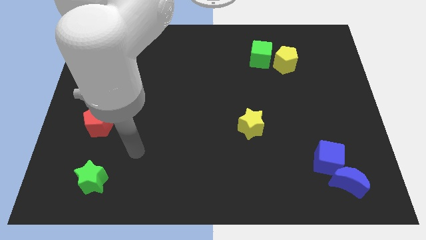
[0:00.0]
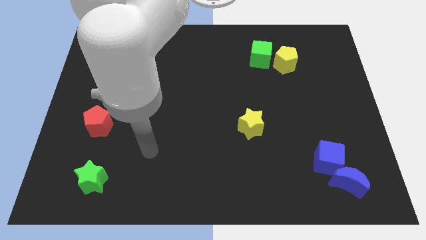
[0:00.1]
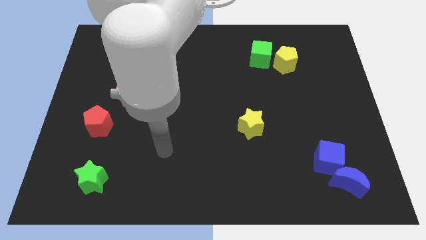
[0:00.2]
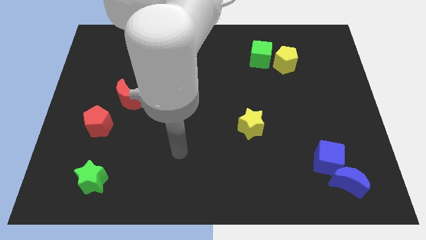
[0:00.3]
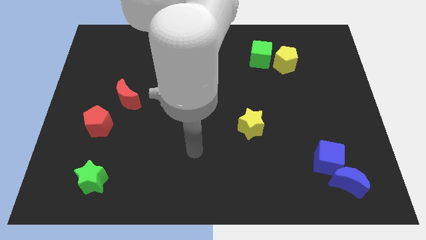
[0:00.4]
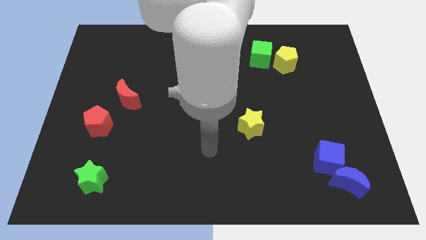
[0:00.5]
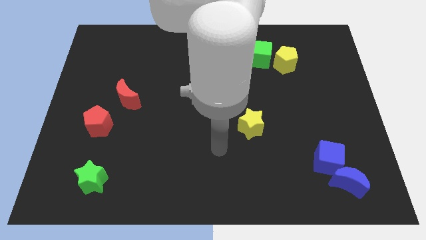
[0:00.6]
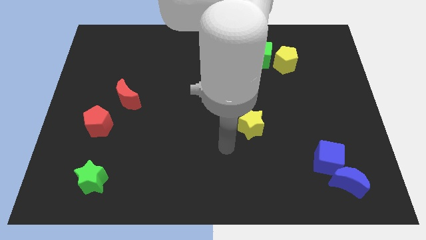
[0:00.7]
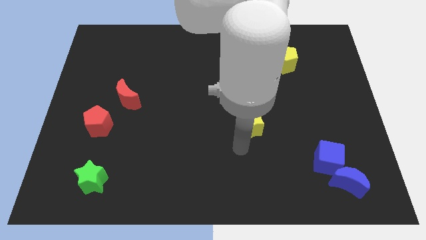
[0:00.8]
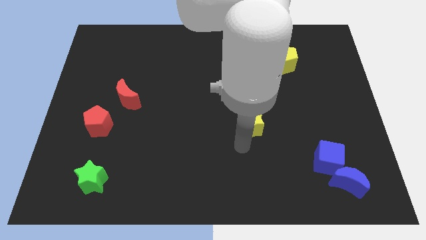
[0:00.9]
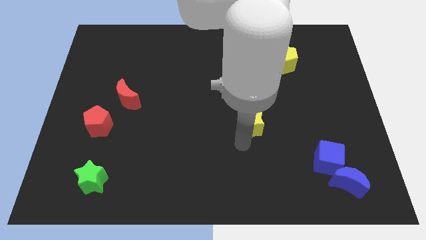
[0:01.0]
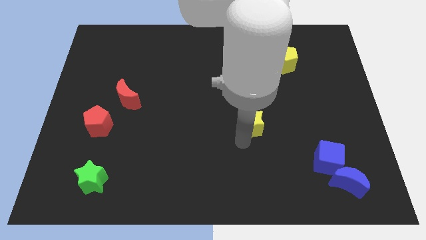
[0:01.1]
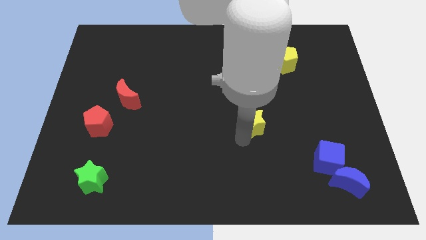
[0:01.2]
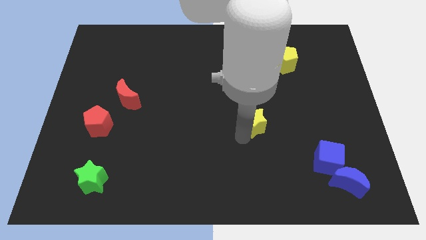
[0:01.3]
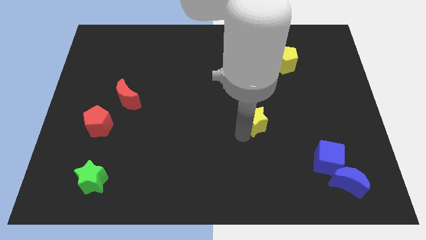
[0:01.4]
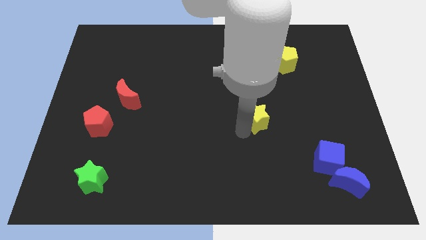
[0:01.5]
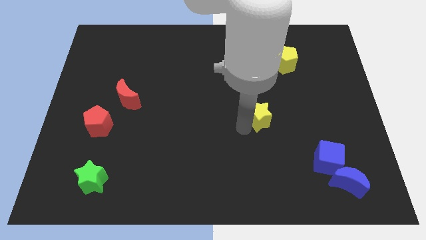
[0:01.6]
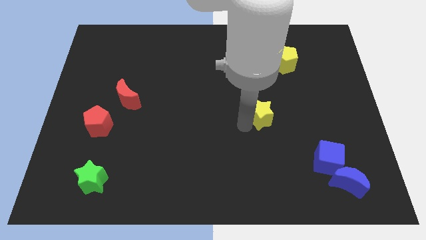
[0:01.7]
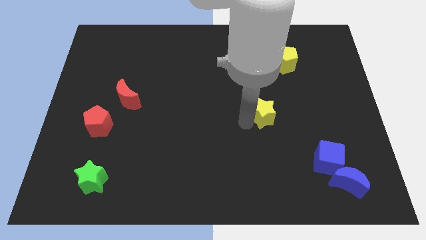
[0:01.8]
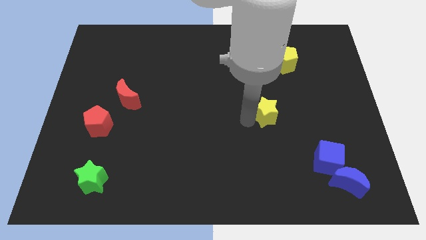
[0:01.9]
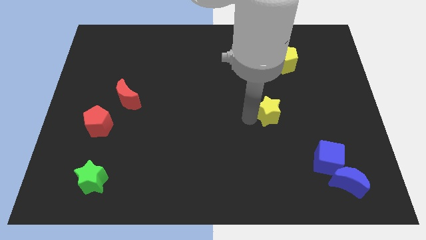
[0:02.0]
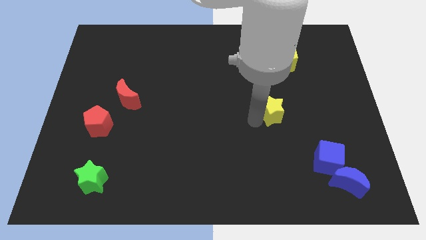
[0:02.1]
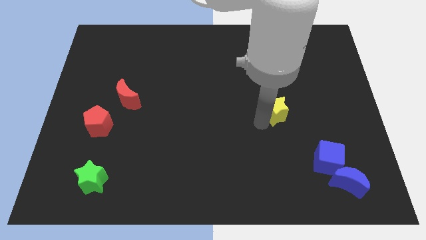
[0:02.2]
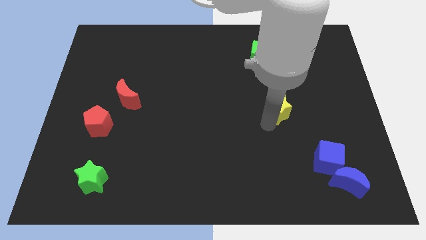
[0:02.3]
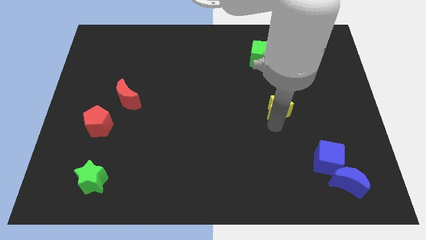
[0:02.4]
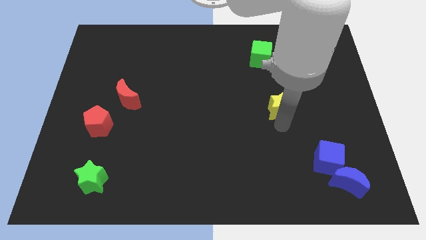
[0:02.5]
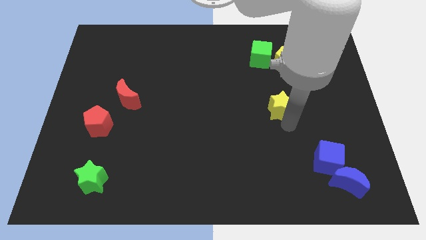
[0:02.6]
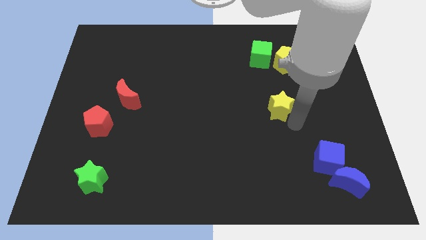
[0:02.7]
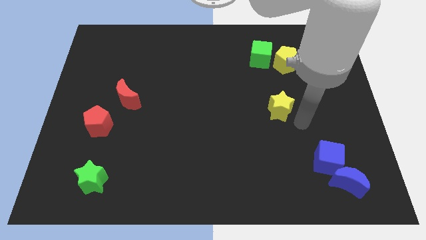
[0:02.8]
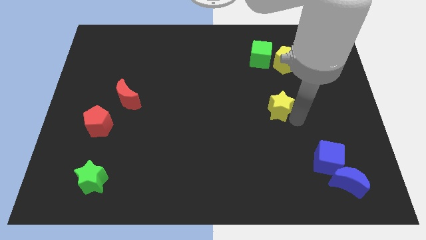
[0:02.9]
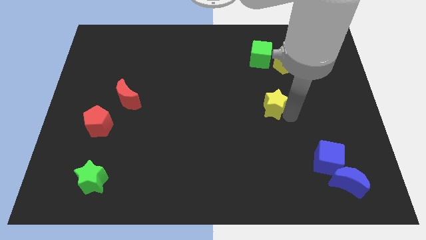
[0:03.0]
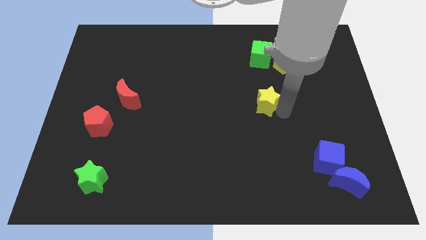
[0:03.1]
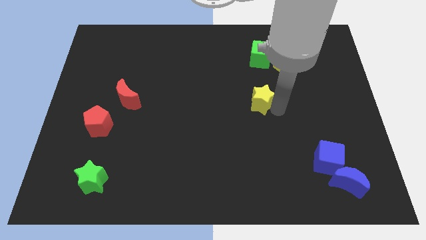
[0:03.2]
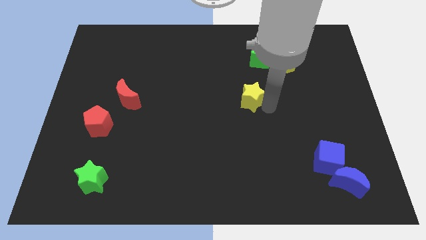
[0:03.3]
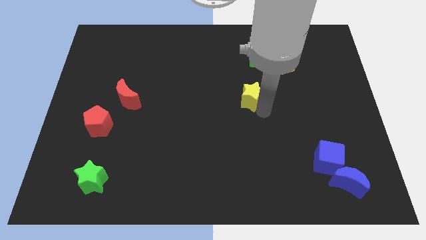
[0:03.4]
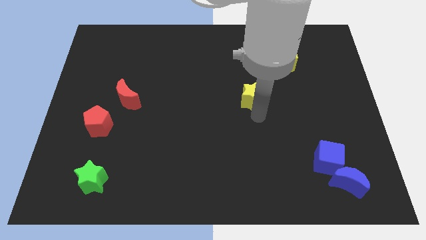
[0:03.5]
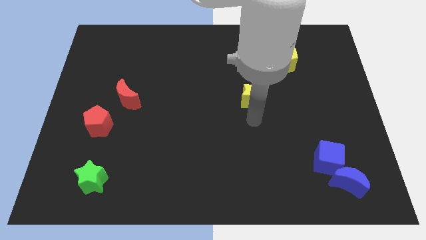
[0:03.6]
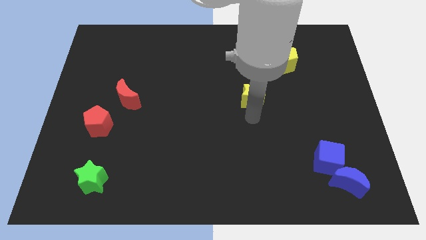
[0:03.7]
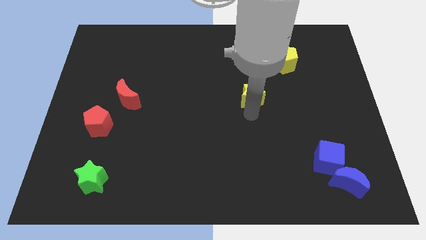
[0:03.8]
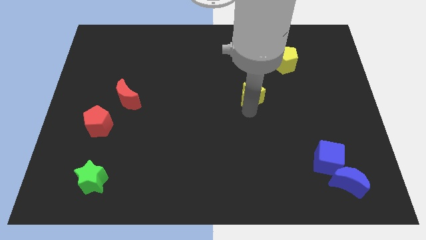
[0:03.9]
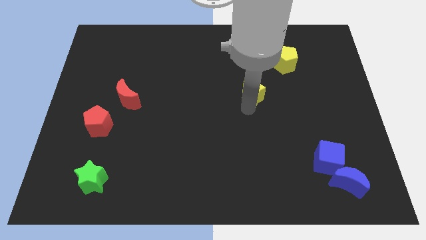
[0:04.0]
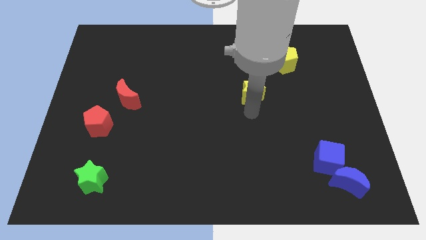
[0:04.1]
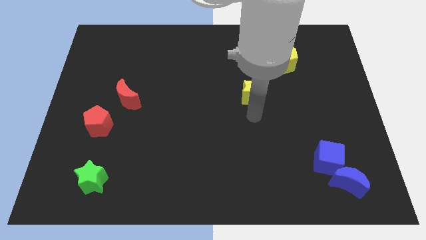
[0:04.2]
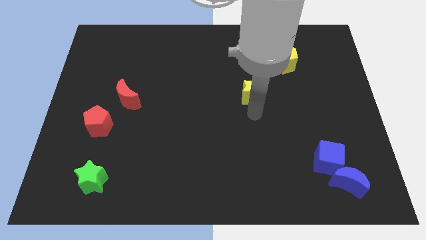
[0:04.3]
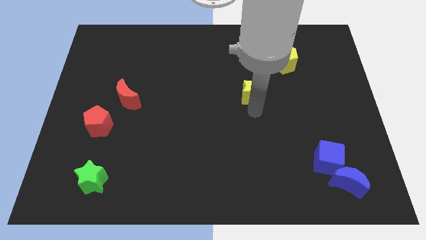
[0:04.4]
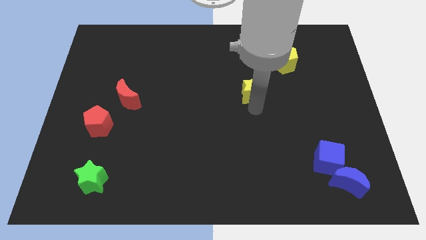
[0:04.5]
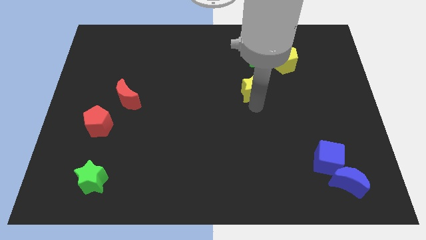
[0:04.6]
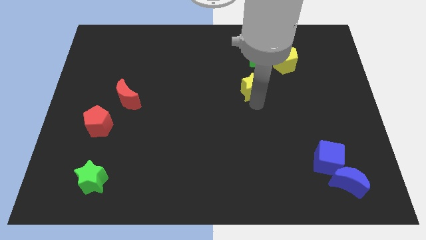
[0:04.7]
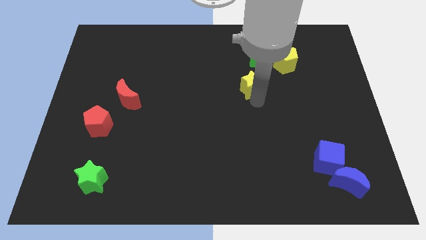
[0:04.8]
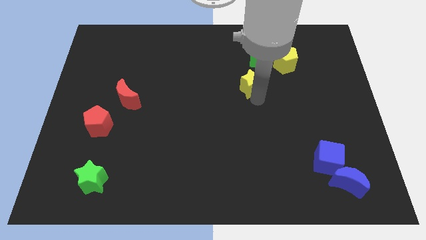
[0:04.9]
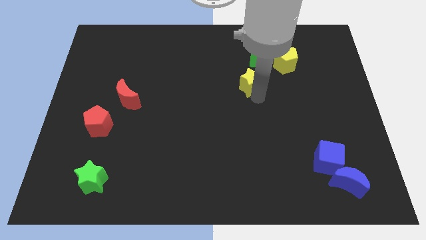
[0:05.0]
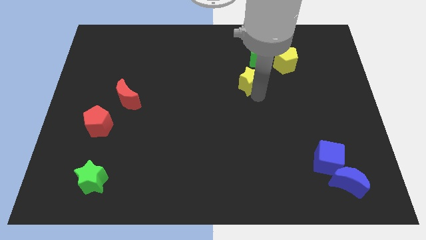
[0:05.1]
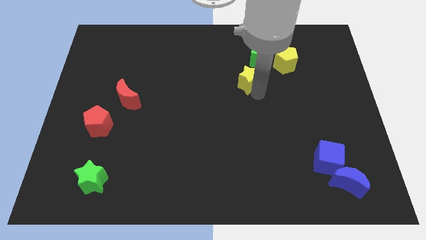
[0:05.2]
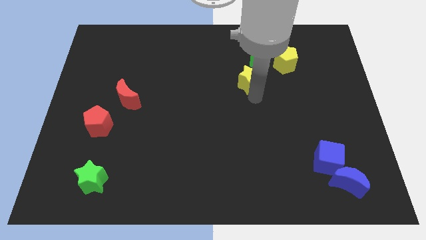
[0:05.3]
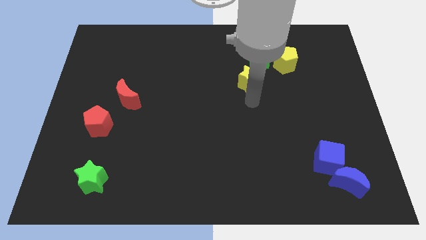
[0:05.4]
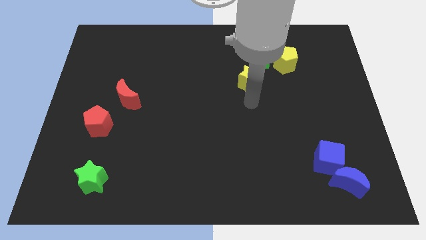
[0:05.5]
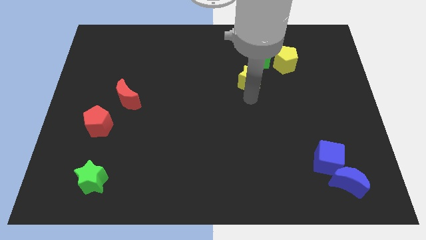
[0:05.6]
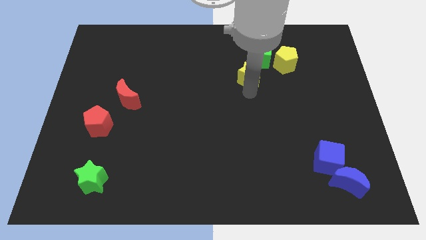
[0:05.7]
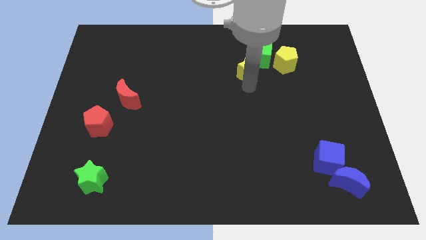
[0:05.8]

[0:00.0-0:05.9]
move the yellow star left of the yellow pentagon

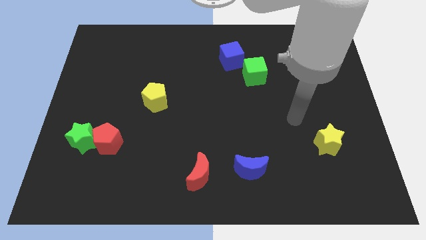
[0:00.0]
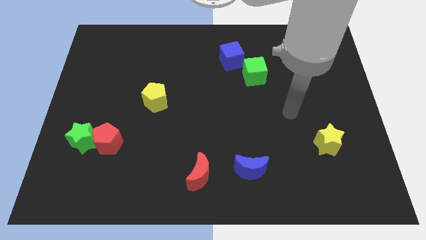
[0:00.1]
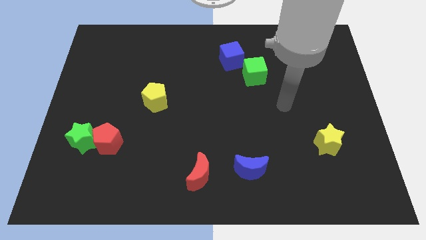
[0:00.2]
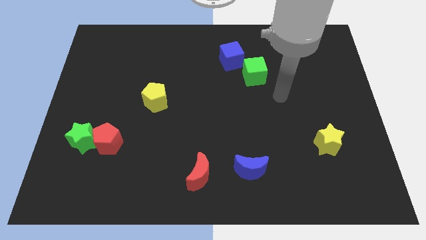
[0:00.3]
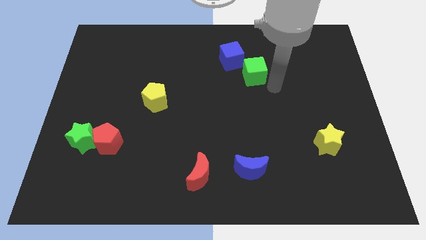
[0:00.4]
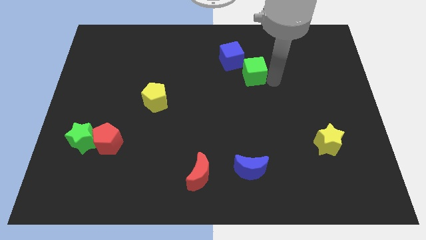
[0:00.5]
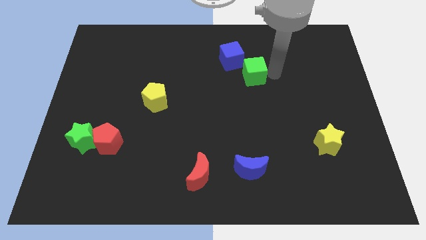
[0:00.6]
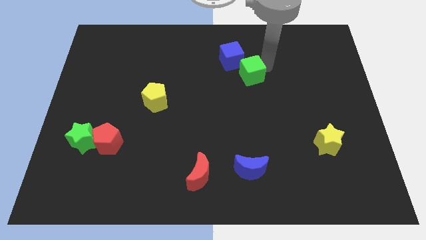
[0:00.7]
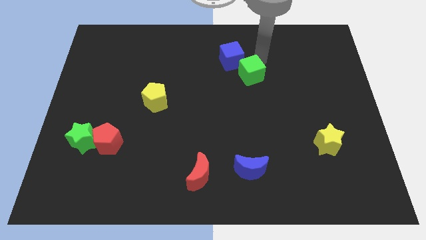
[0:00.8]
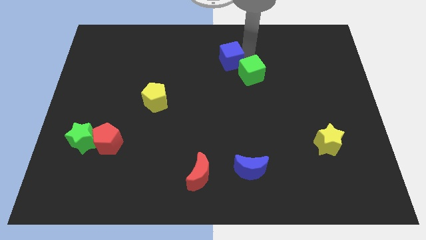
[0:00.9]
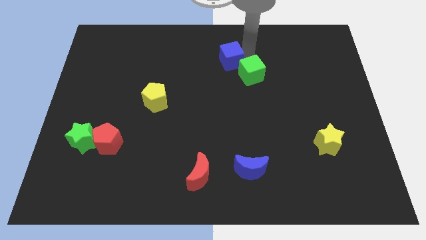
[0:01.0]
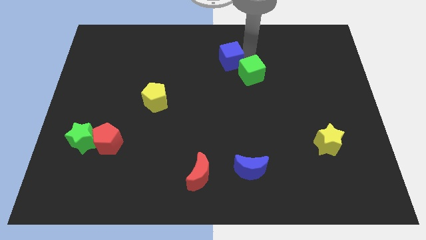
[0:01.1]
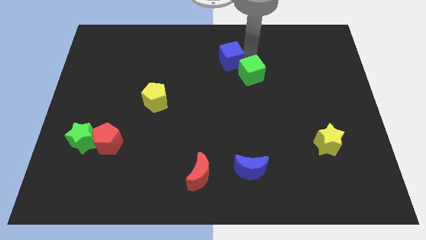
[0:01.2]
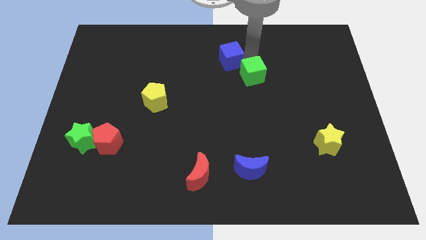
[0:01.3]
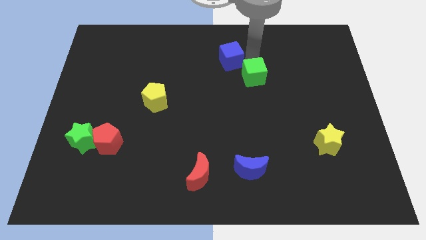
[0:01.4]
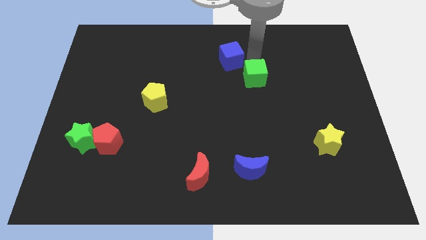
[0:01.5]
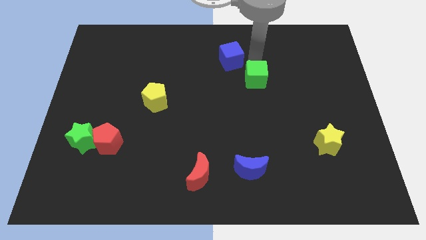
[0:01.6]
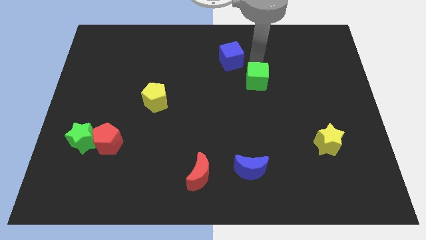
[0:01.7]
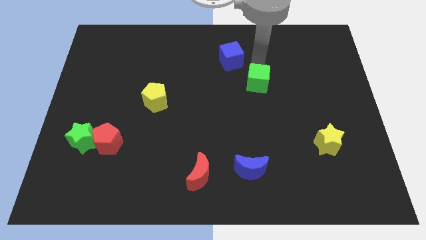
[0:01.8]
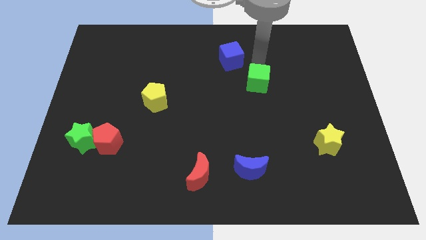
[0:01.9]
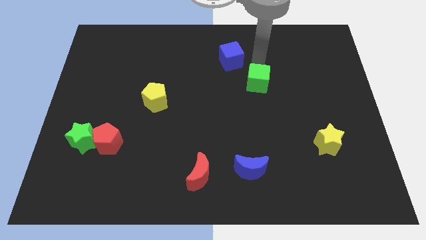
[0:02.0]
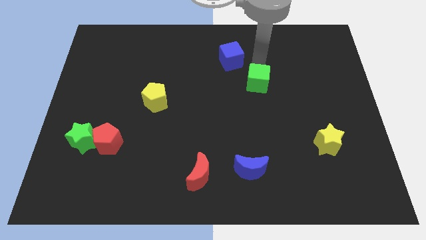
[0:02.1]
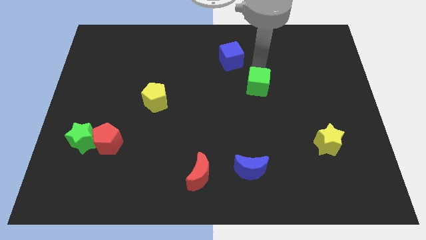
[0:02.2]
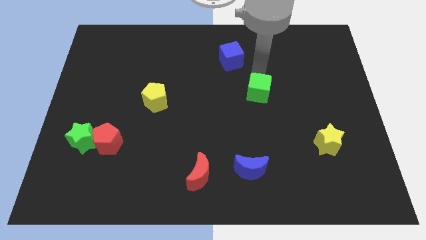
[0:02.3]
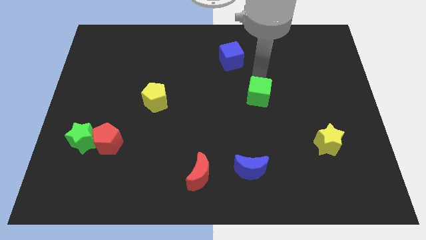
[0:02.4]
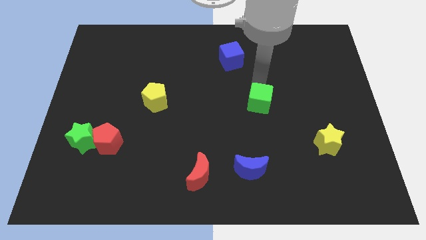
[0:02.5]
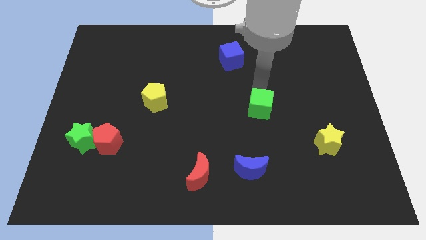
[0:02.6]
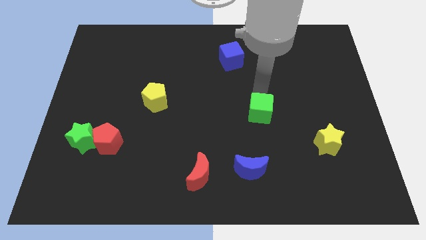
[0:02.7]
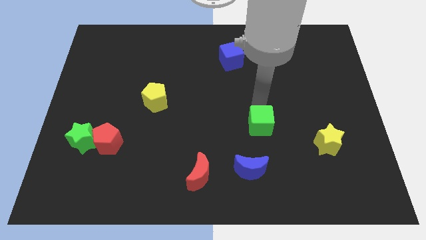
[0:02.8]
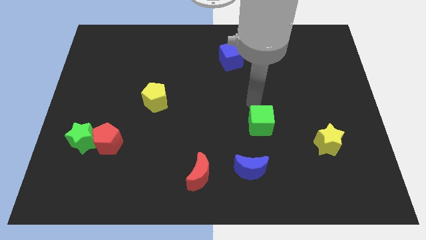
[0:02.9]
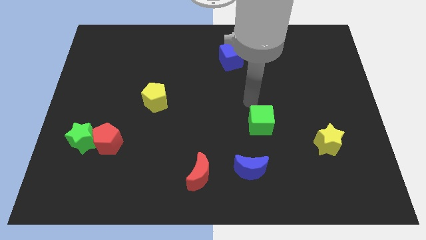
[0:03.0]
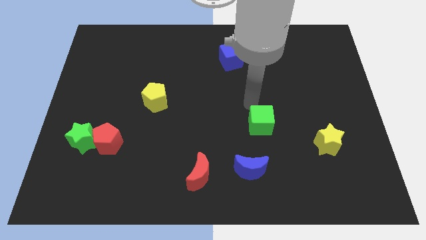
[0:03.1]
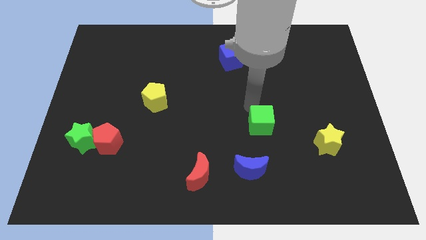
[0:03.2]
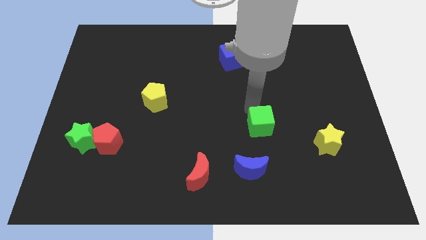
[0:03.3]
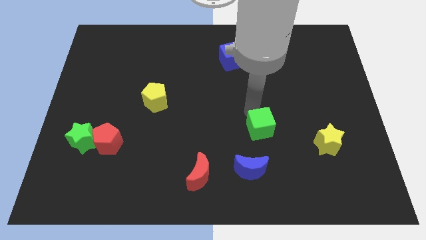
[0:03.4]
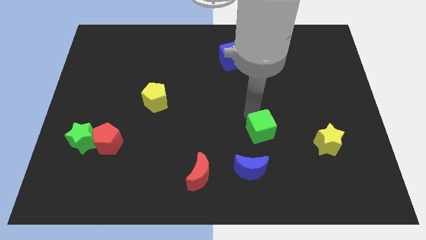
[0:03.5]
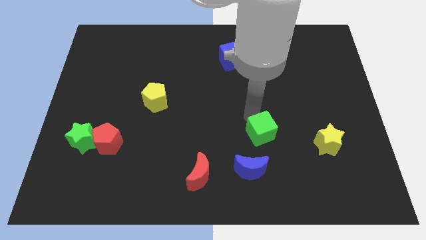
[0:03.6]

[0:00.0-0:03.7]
push the green cube to the top right of the blue moon
